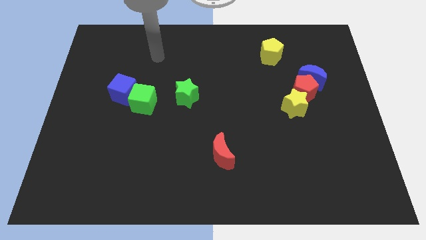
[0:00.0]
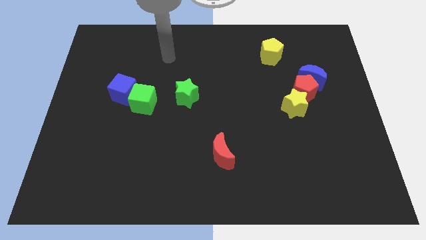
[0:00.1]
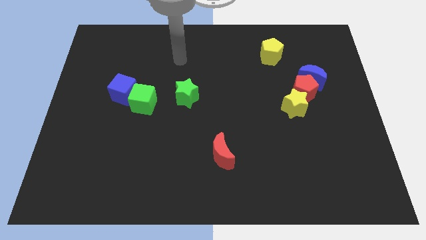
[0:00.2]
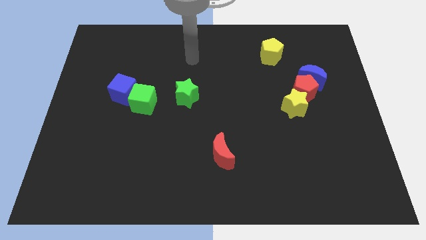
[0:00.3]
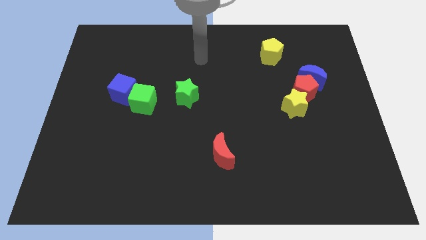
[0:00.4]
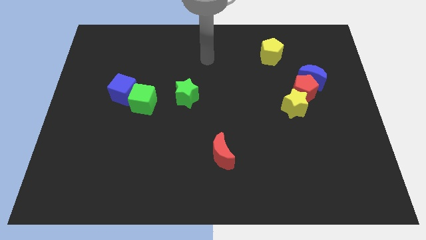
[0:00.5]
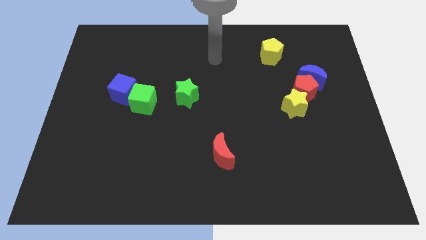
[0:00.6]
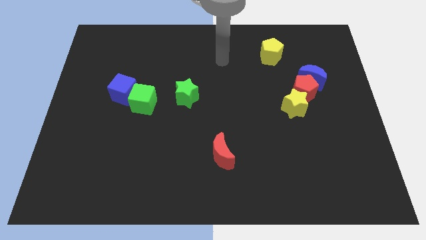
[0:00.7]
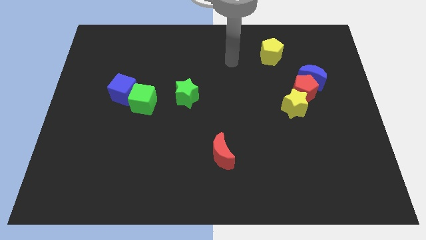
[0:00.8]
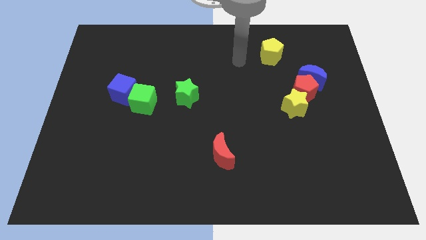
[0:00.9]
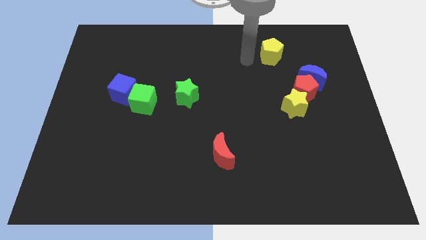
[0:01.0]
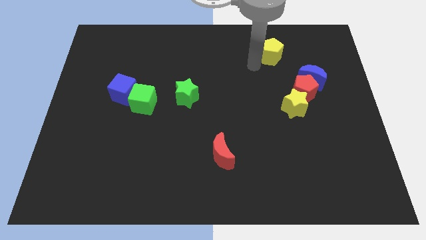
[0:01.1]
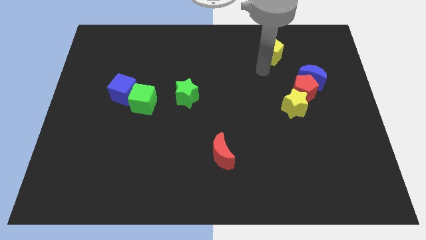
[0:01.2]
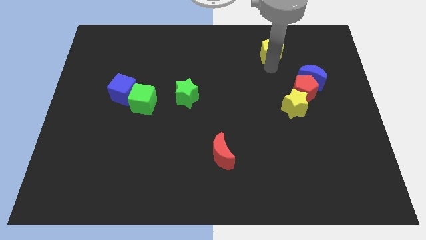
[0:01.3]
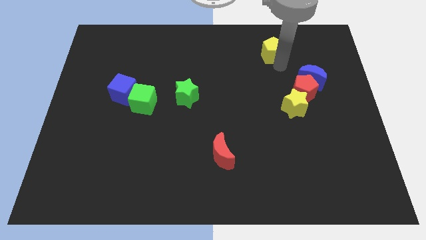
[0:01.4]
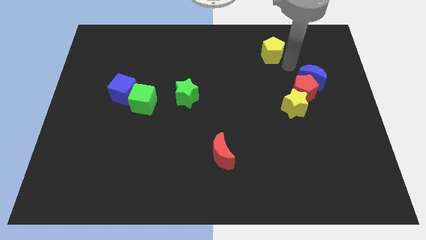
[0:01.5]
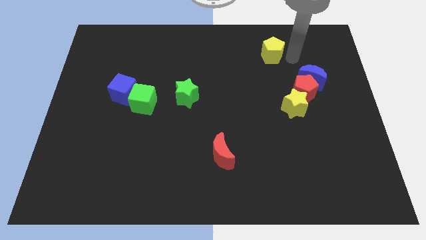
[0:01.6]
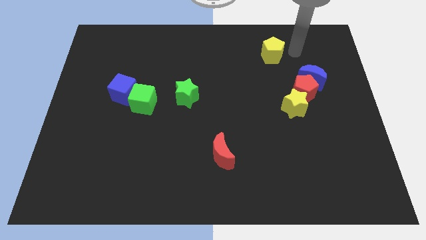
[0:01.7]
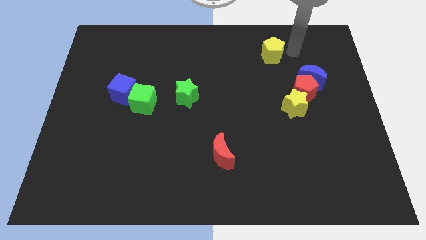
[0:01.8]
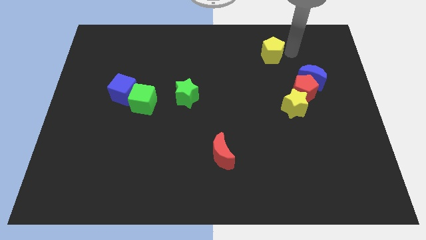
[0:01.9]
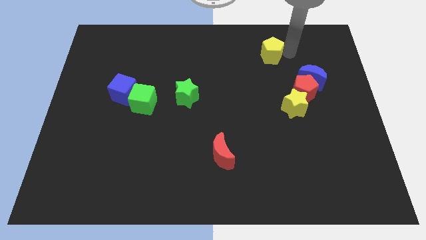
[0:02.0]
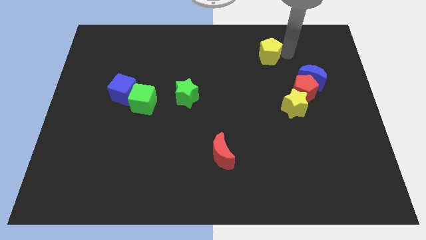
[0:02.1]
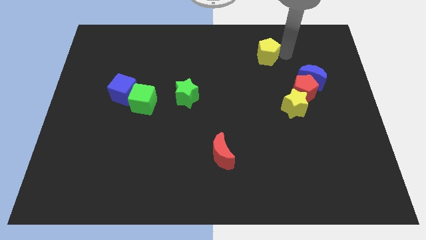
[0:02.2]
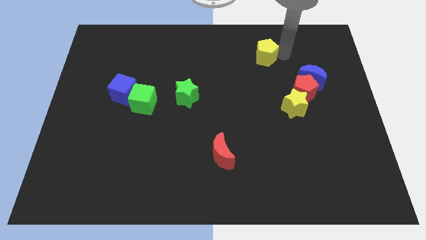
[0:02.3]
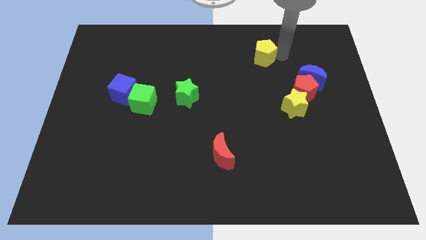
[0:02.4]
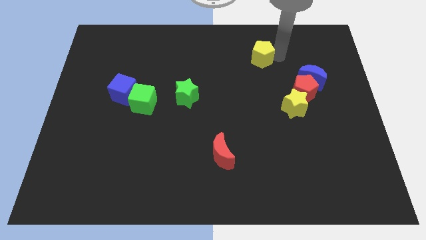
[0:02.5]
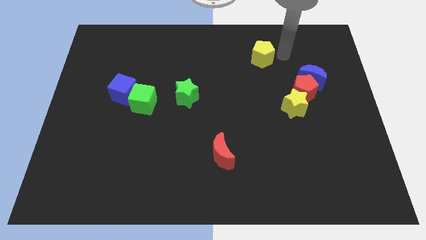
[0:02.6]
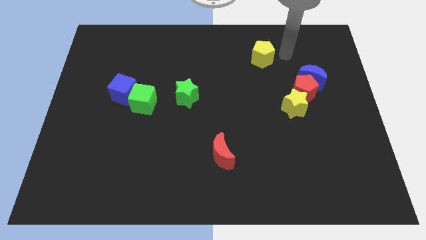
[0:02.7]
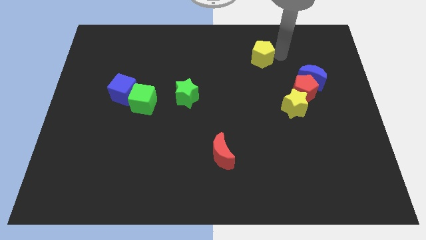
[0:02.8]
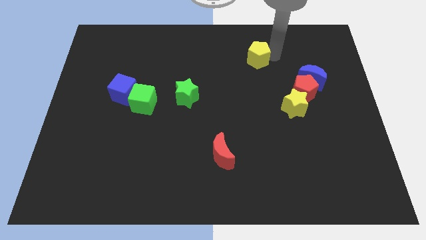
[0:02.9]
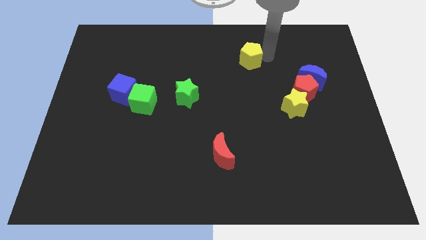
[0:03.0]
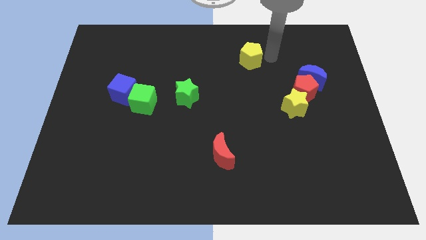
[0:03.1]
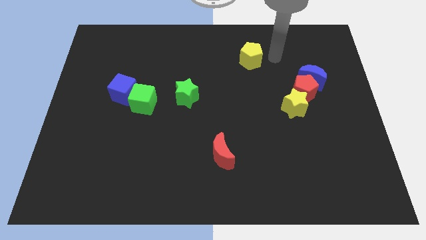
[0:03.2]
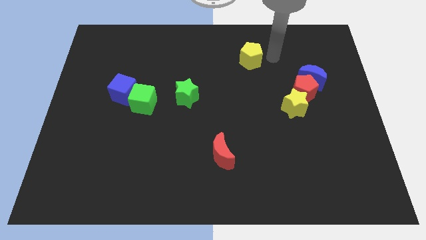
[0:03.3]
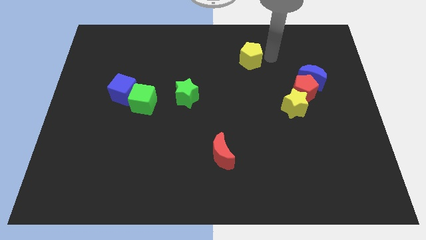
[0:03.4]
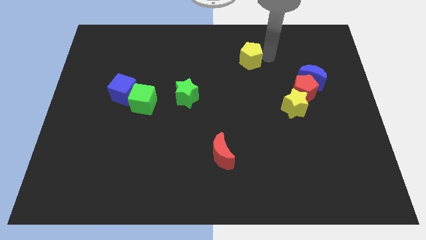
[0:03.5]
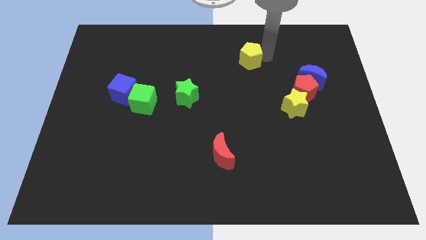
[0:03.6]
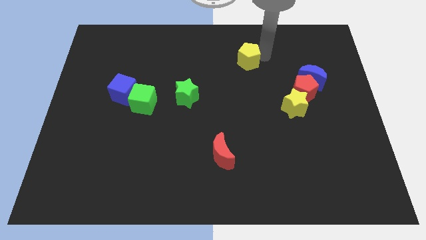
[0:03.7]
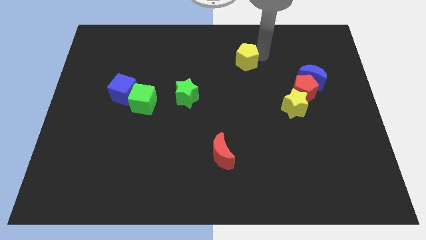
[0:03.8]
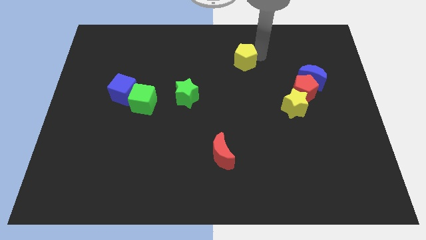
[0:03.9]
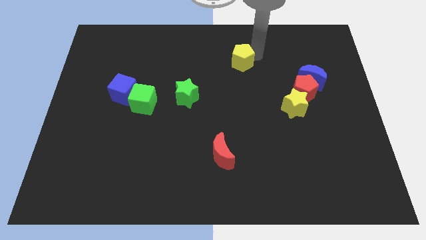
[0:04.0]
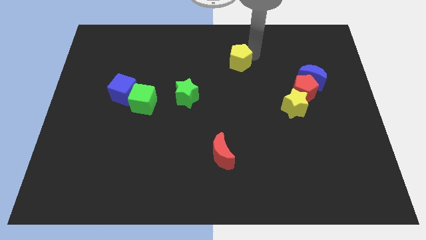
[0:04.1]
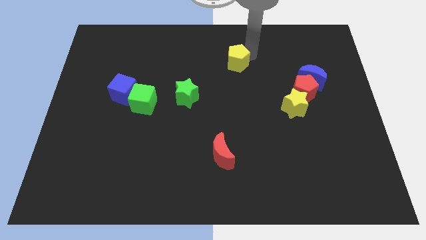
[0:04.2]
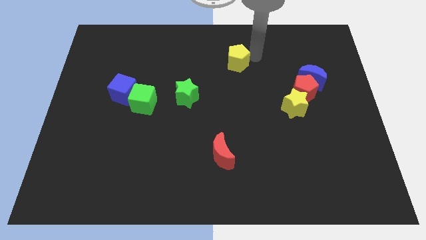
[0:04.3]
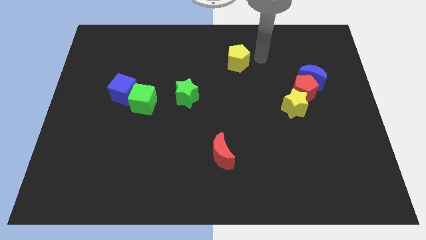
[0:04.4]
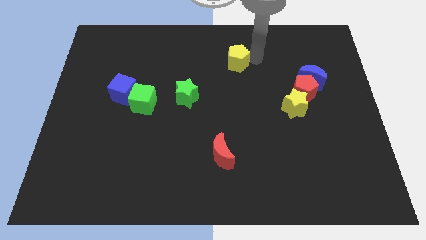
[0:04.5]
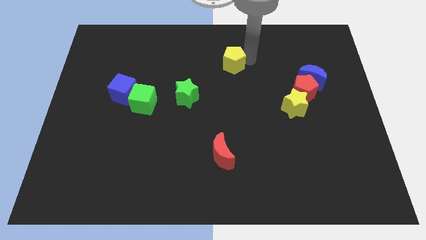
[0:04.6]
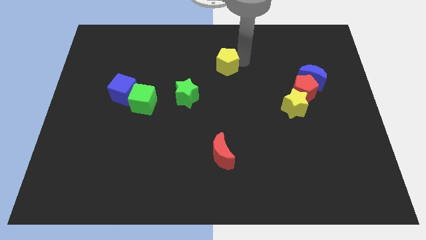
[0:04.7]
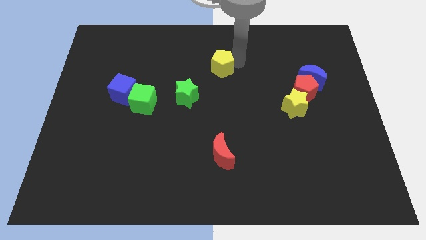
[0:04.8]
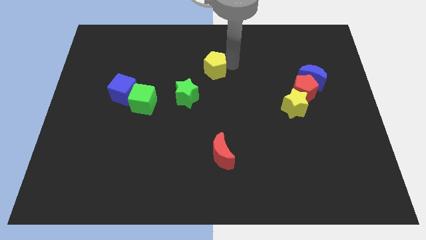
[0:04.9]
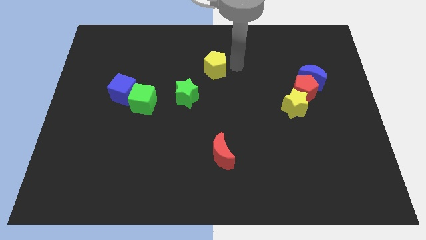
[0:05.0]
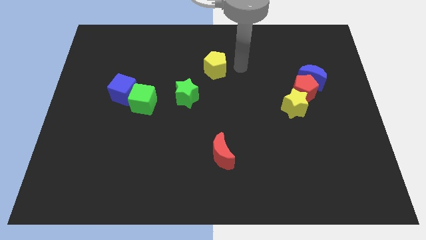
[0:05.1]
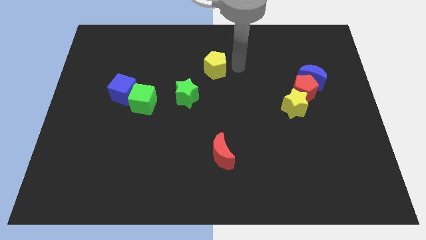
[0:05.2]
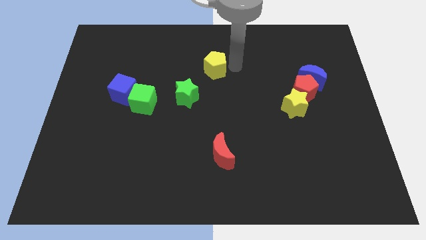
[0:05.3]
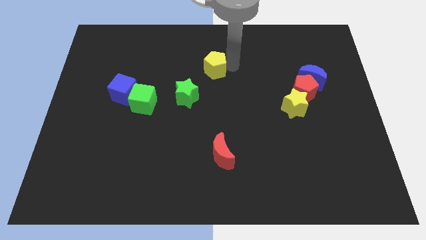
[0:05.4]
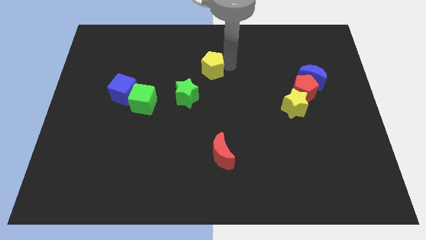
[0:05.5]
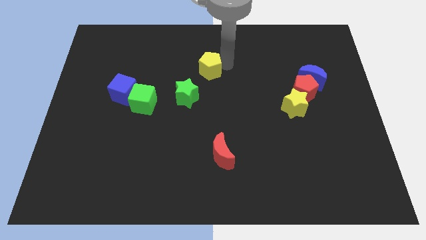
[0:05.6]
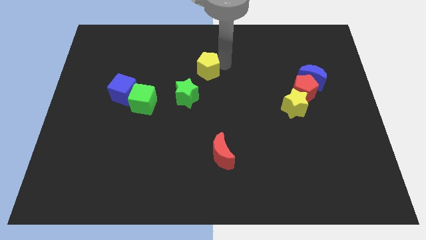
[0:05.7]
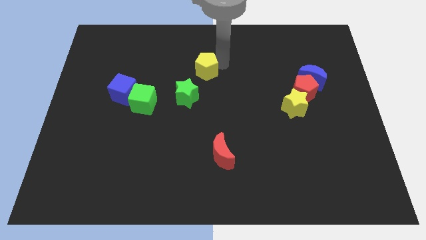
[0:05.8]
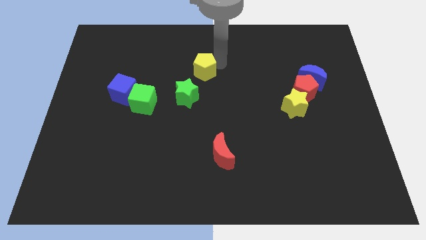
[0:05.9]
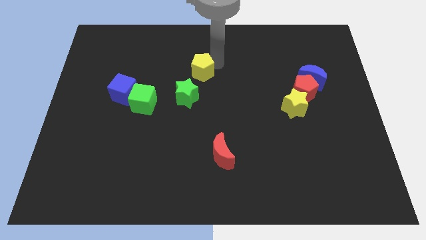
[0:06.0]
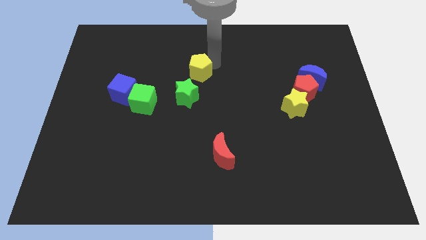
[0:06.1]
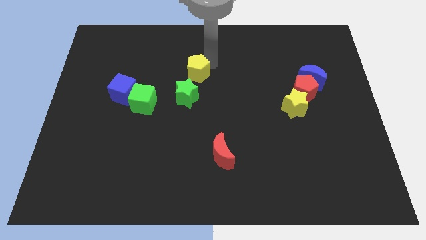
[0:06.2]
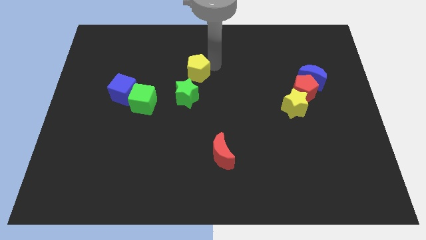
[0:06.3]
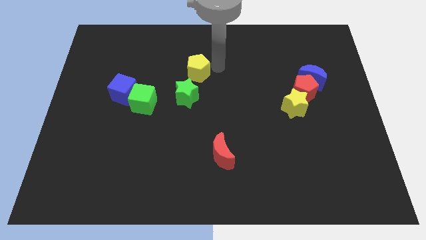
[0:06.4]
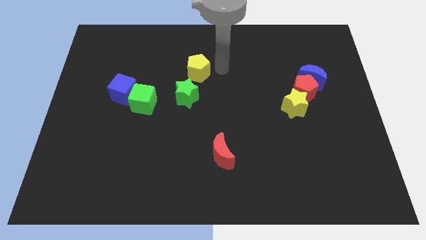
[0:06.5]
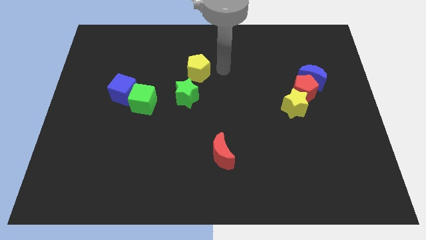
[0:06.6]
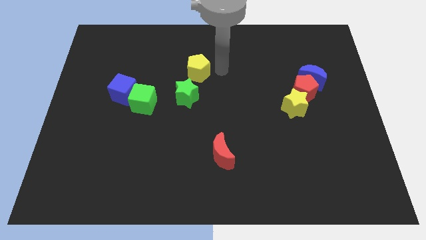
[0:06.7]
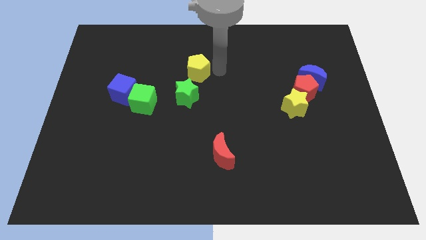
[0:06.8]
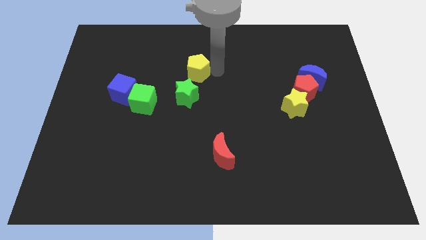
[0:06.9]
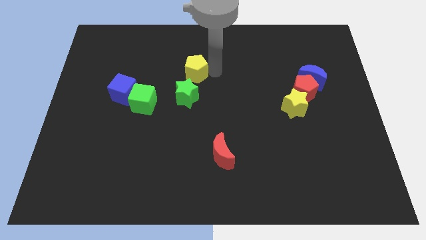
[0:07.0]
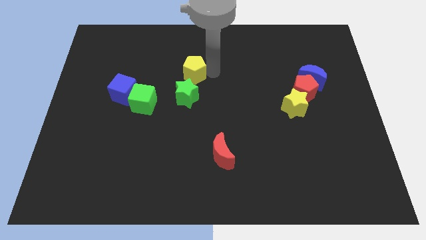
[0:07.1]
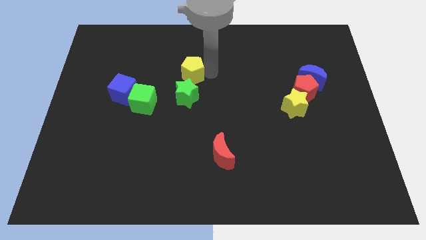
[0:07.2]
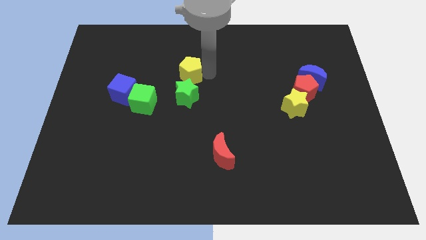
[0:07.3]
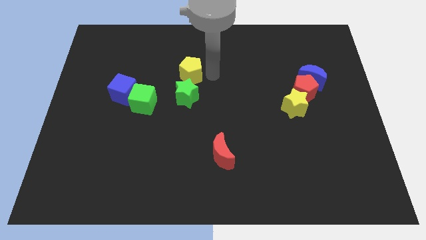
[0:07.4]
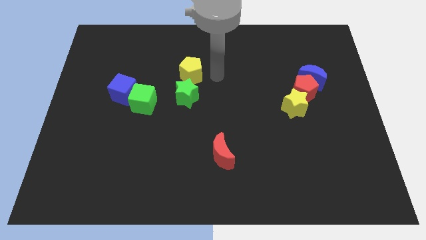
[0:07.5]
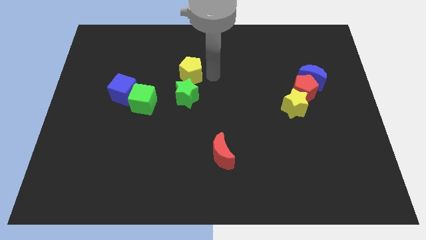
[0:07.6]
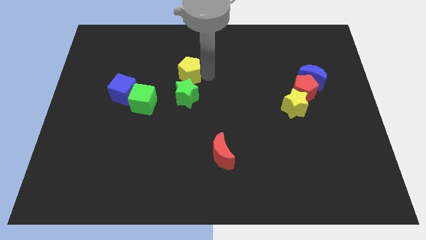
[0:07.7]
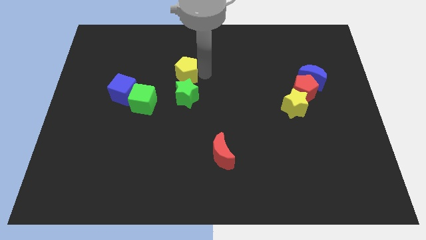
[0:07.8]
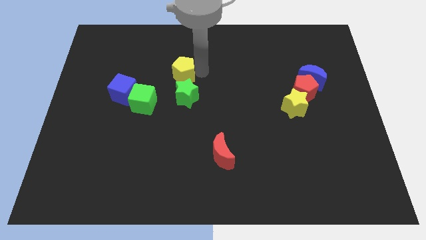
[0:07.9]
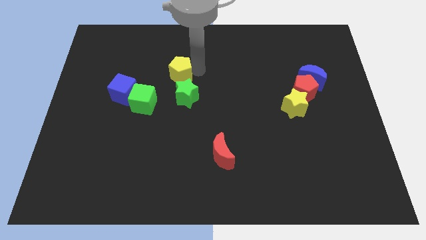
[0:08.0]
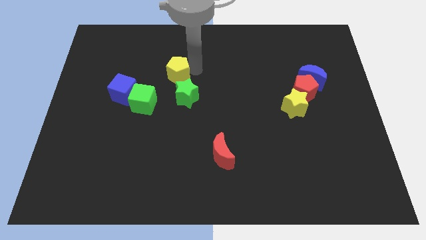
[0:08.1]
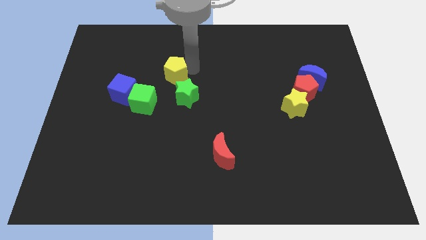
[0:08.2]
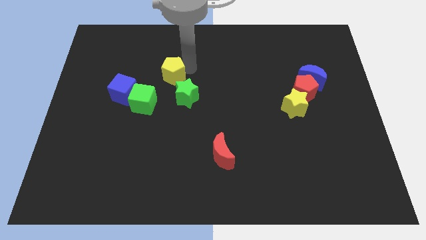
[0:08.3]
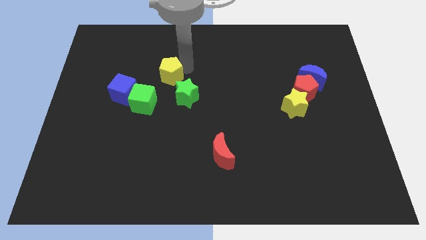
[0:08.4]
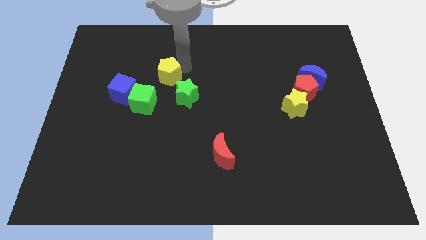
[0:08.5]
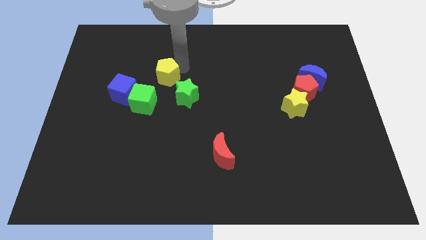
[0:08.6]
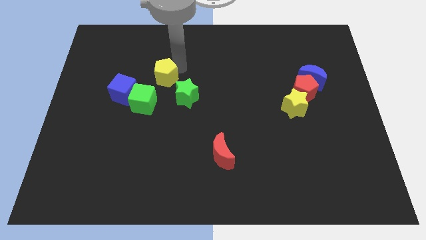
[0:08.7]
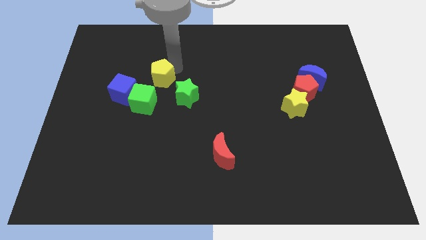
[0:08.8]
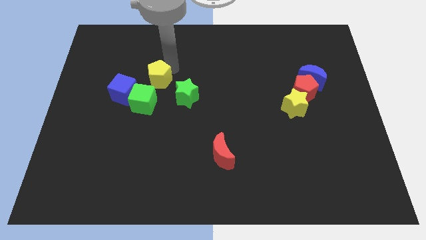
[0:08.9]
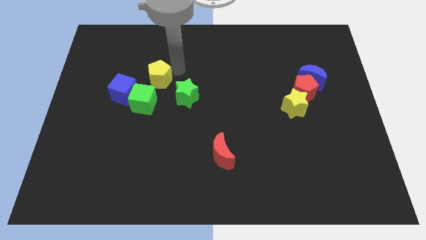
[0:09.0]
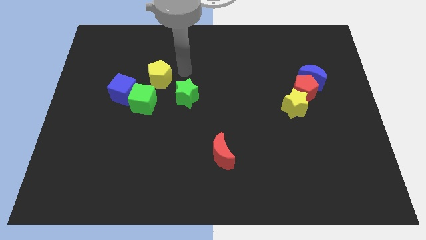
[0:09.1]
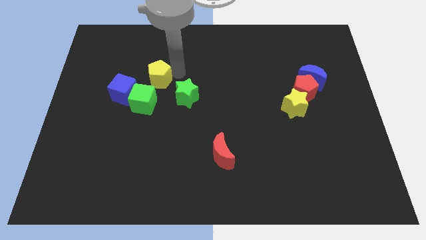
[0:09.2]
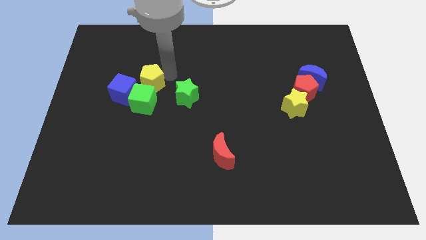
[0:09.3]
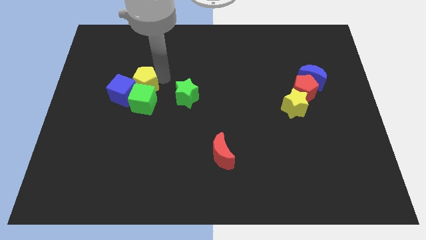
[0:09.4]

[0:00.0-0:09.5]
push the yellow pentagon to the top left of the green cube
